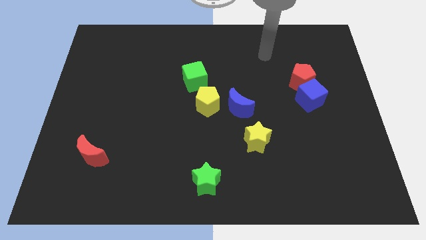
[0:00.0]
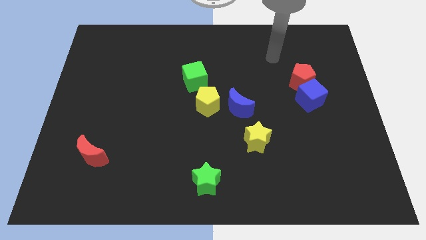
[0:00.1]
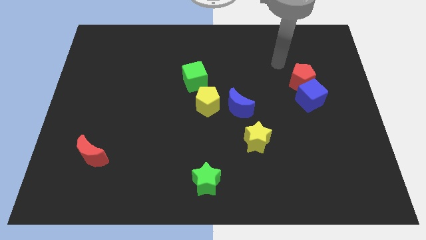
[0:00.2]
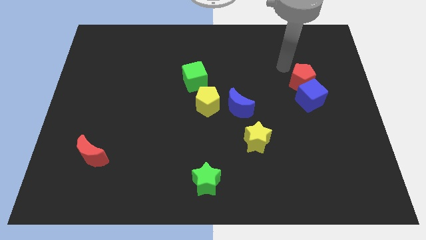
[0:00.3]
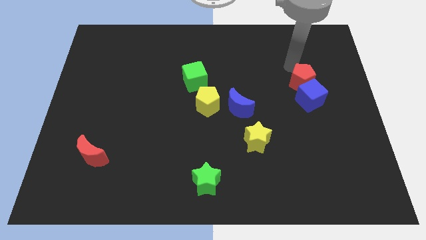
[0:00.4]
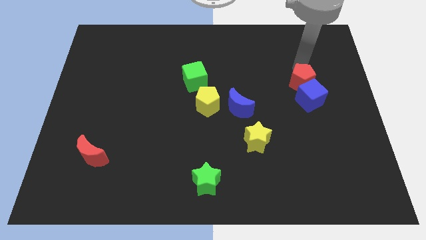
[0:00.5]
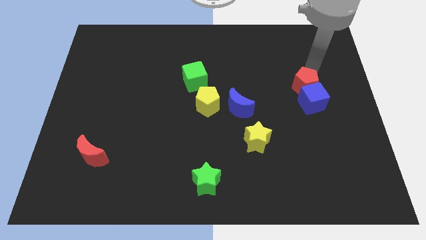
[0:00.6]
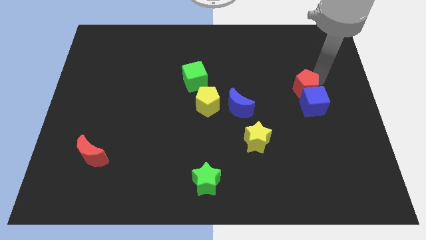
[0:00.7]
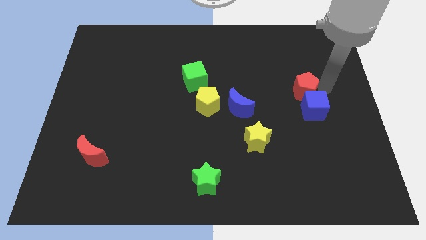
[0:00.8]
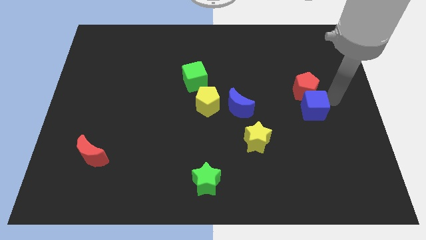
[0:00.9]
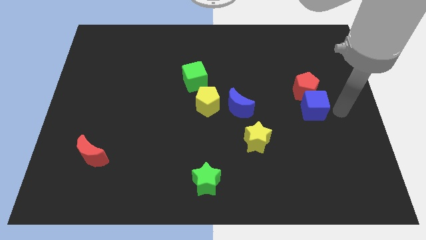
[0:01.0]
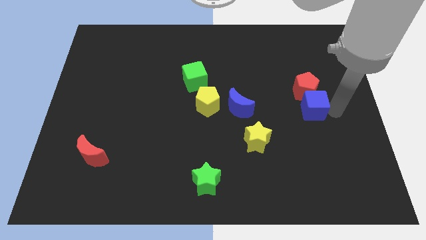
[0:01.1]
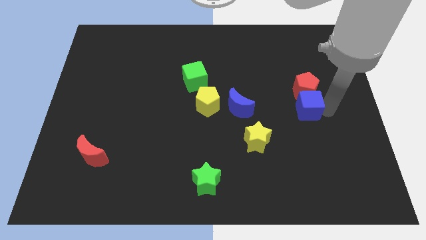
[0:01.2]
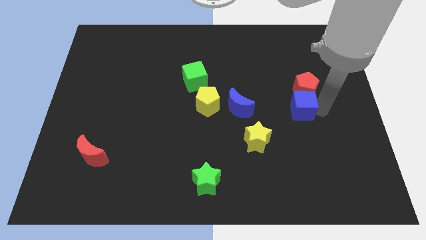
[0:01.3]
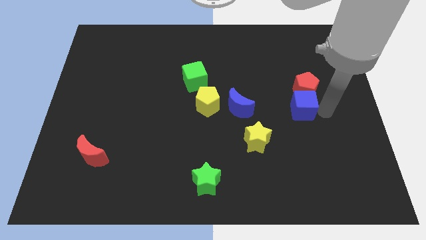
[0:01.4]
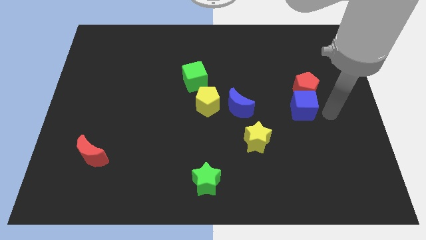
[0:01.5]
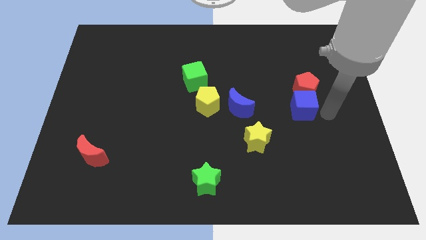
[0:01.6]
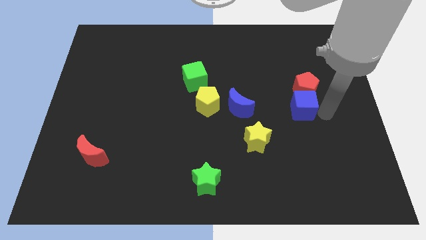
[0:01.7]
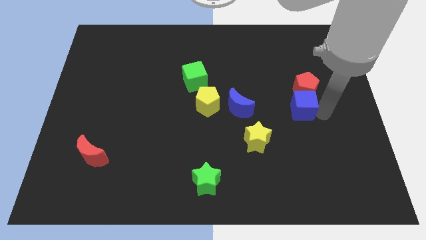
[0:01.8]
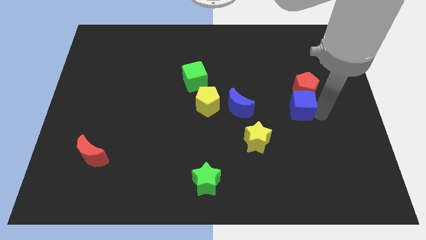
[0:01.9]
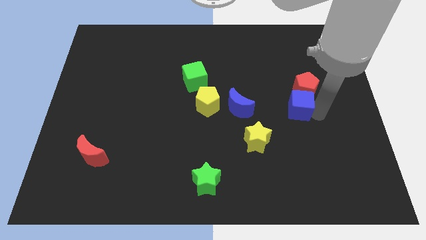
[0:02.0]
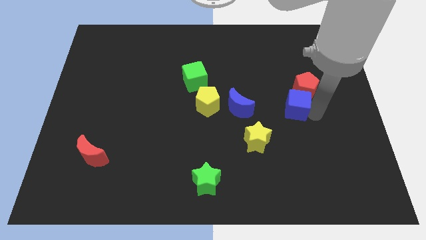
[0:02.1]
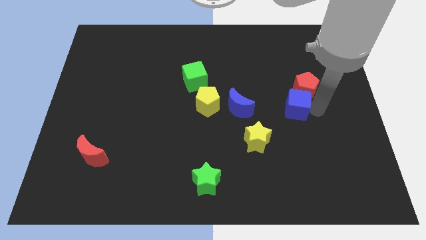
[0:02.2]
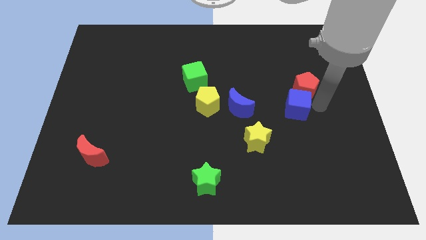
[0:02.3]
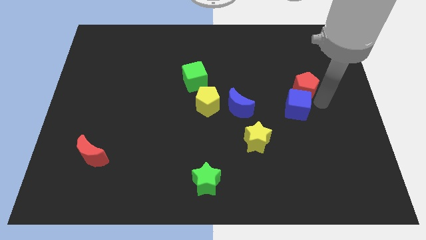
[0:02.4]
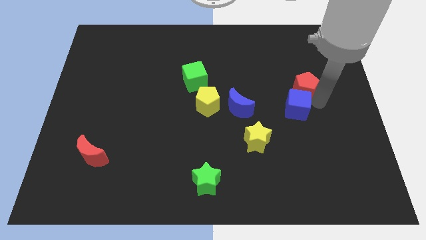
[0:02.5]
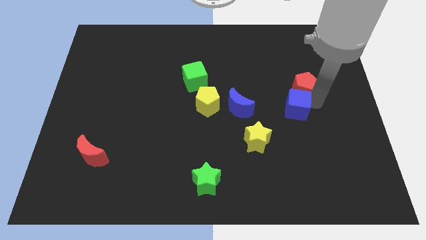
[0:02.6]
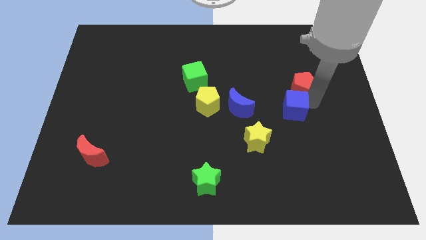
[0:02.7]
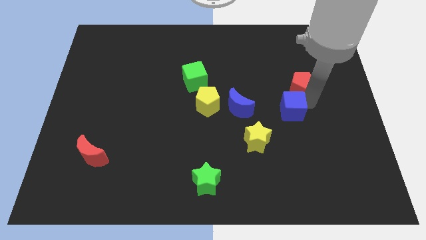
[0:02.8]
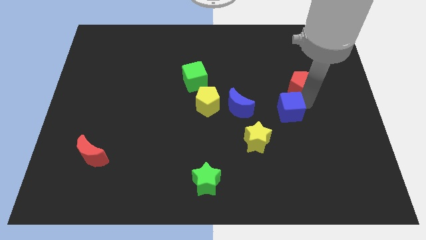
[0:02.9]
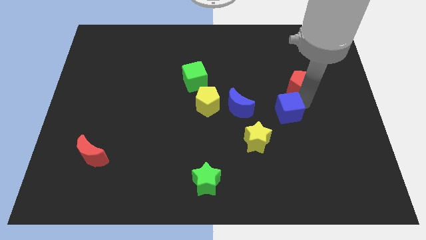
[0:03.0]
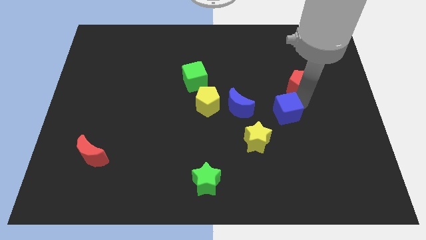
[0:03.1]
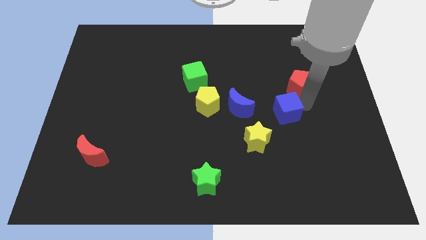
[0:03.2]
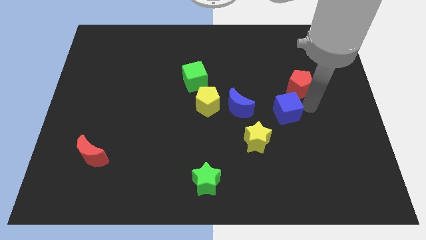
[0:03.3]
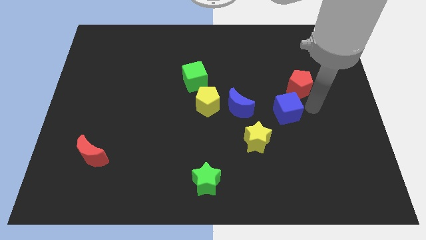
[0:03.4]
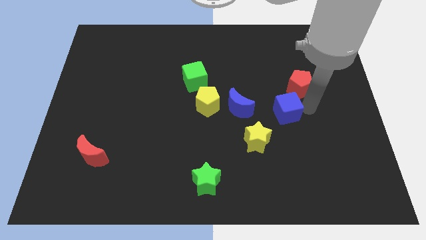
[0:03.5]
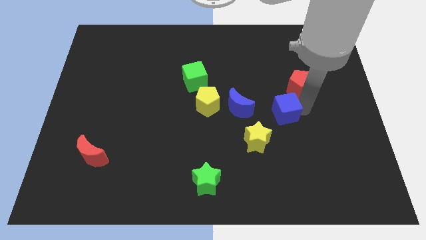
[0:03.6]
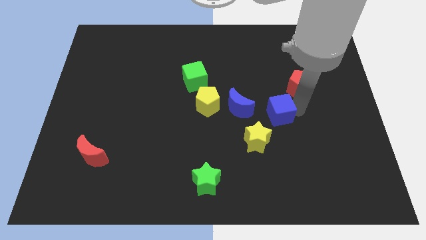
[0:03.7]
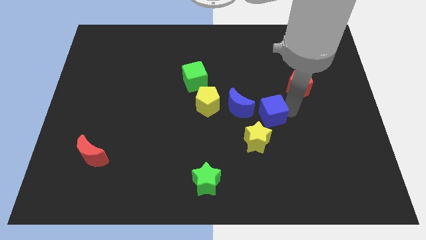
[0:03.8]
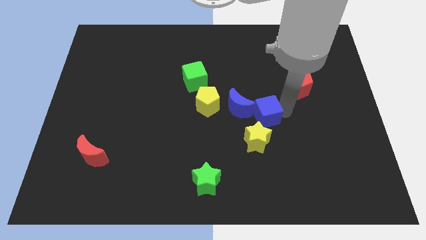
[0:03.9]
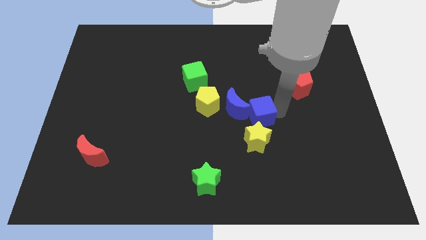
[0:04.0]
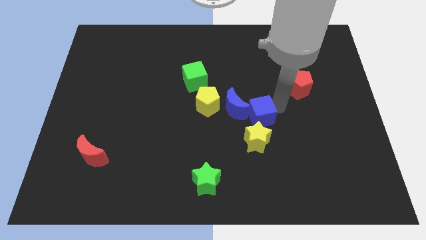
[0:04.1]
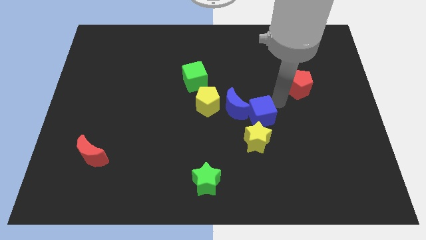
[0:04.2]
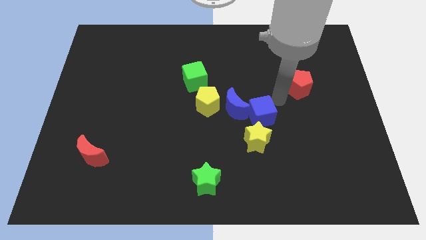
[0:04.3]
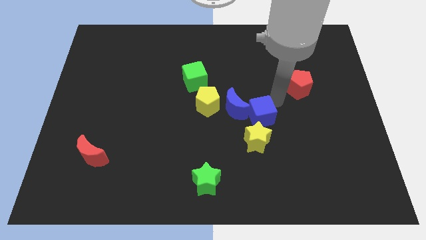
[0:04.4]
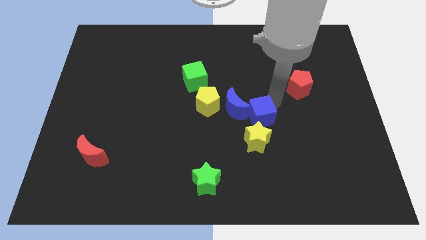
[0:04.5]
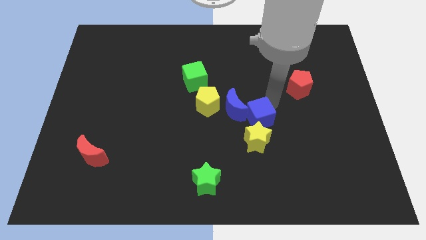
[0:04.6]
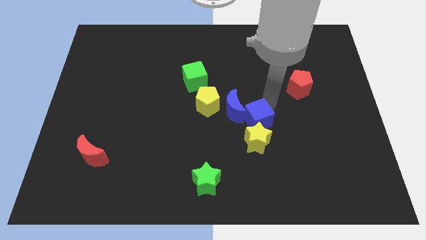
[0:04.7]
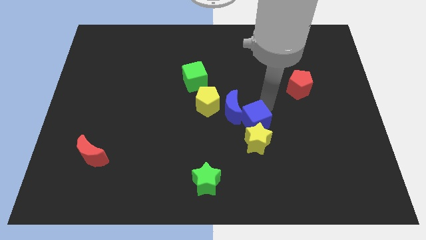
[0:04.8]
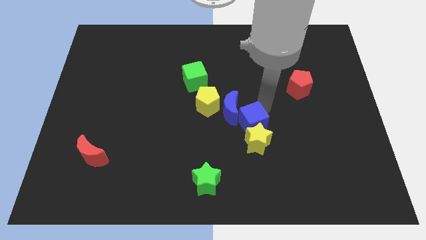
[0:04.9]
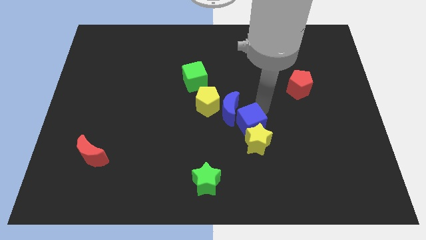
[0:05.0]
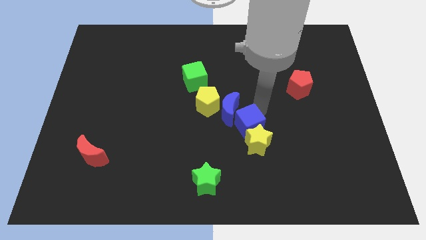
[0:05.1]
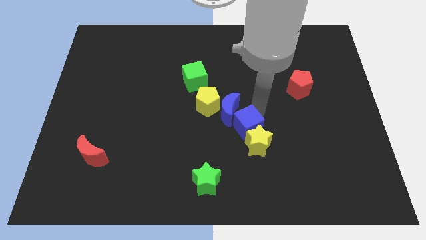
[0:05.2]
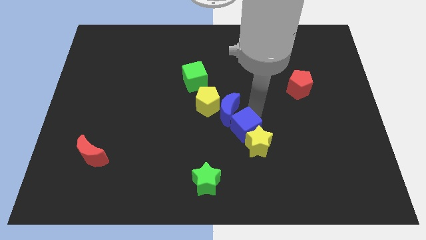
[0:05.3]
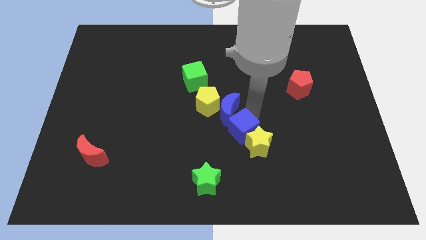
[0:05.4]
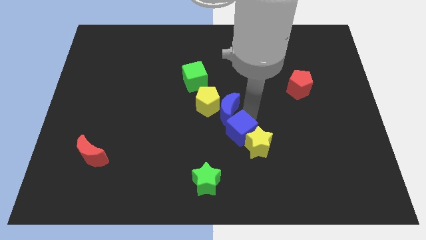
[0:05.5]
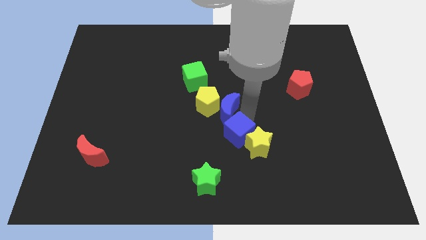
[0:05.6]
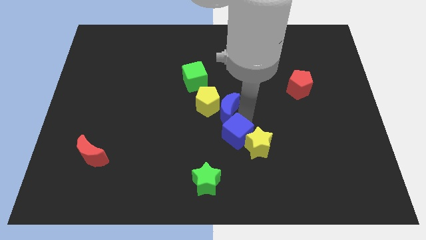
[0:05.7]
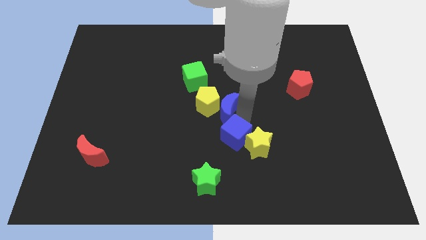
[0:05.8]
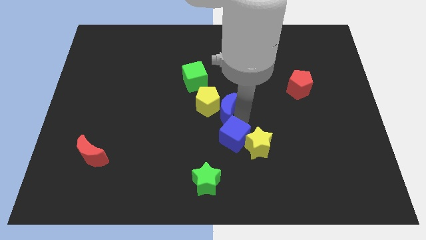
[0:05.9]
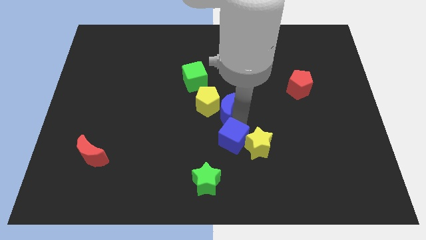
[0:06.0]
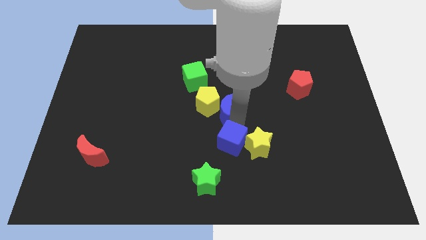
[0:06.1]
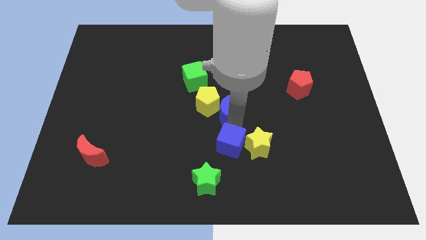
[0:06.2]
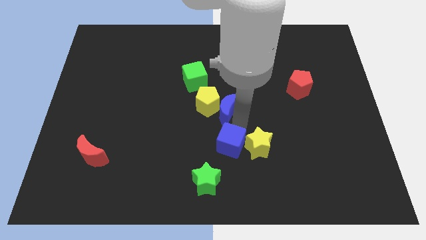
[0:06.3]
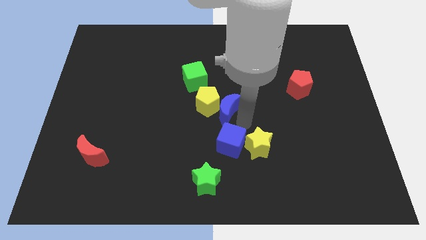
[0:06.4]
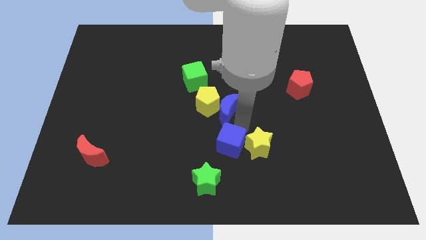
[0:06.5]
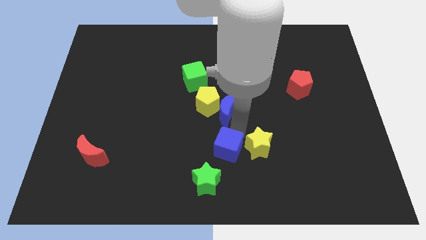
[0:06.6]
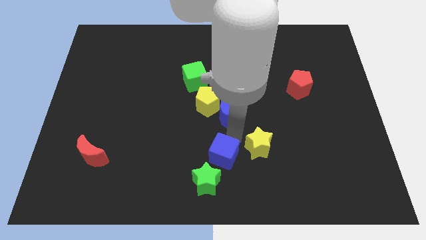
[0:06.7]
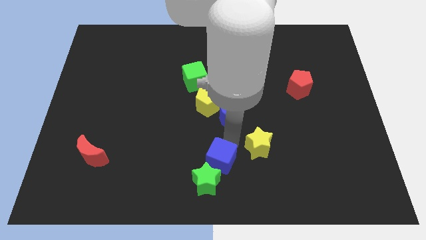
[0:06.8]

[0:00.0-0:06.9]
put the blue cube to the green star

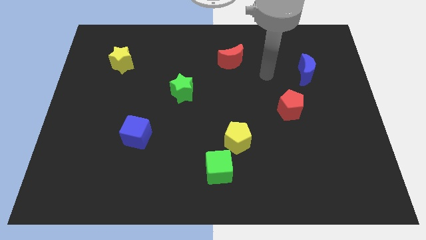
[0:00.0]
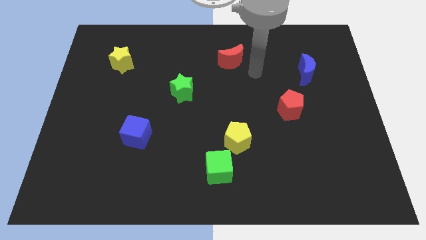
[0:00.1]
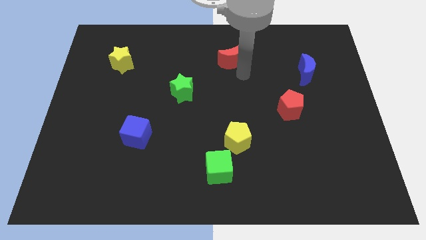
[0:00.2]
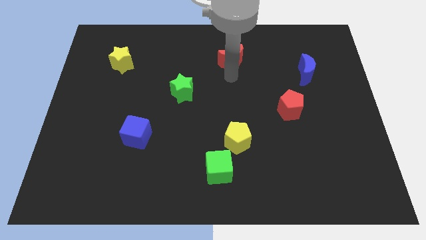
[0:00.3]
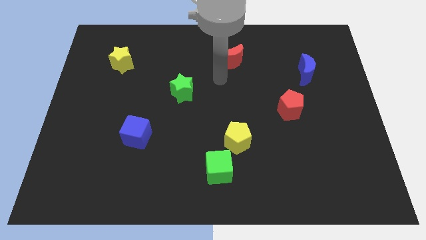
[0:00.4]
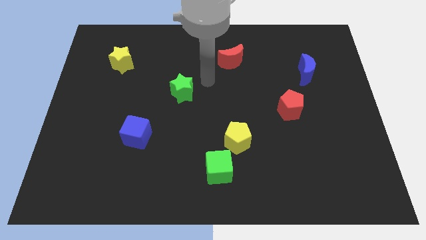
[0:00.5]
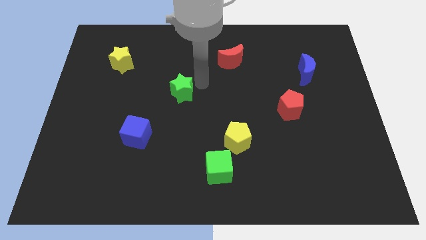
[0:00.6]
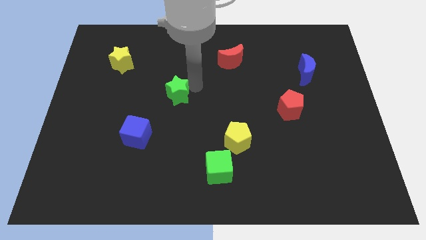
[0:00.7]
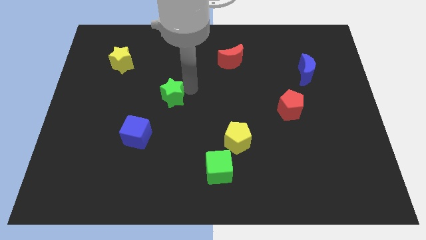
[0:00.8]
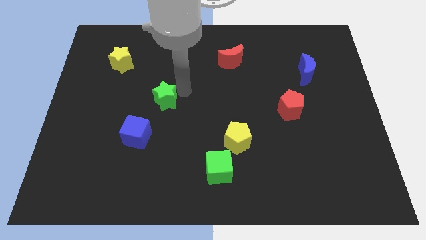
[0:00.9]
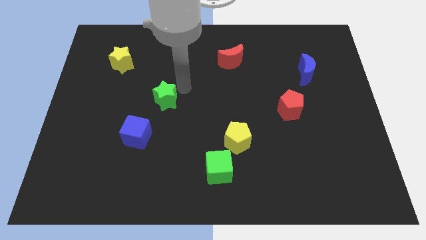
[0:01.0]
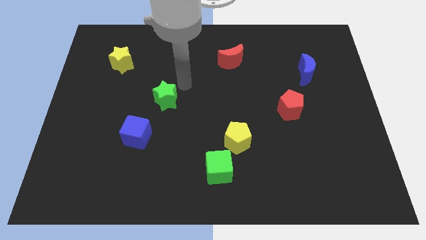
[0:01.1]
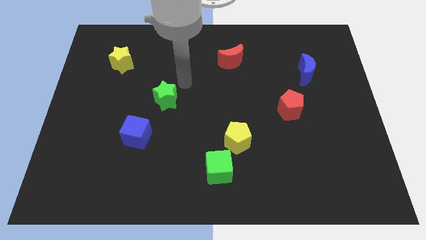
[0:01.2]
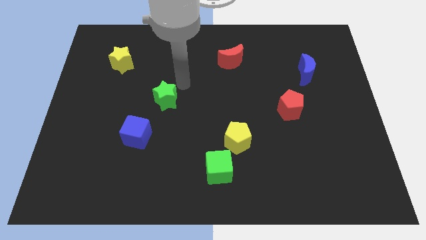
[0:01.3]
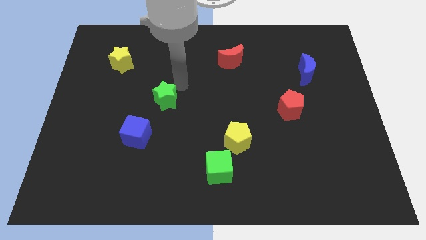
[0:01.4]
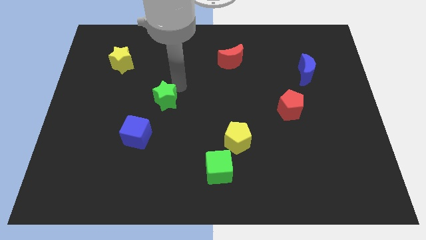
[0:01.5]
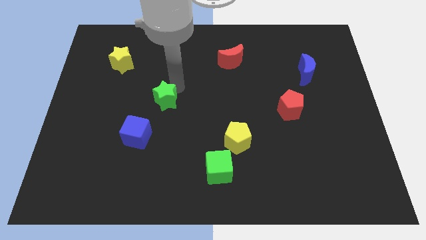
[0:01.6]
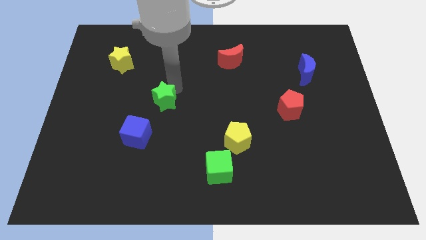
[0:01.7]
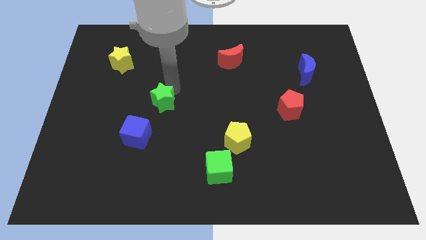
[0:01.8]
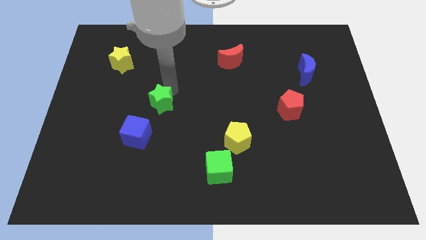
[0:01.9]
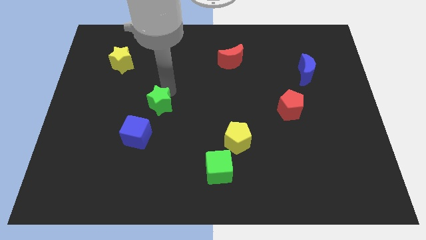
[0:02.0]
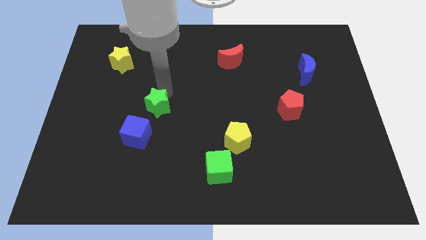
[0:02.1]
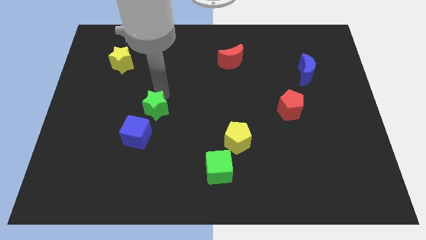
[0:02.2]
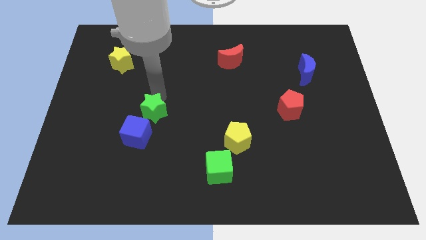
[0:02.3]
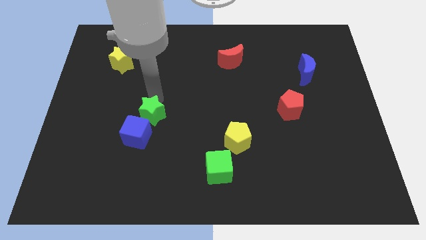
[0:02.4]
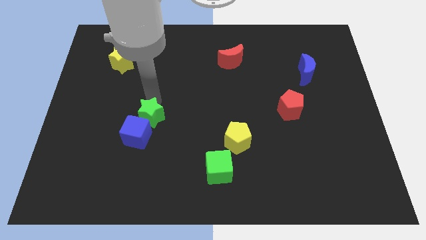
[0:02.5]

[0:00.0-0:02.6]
push the green star to the blue cube
